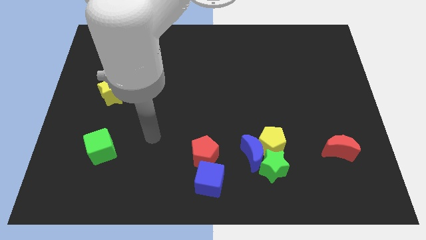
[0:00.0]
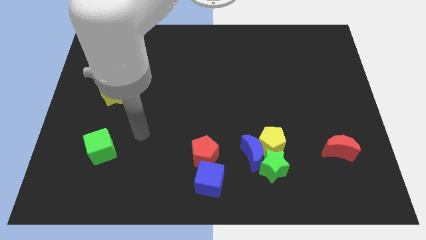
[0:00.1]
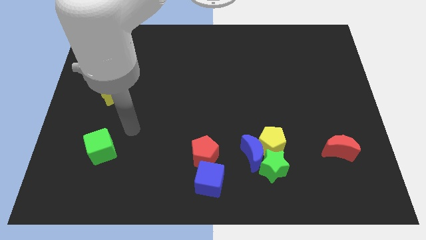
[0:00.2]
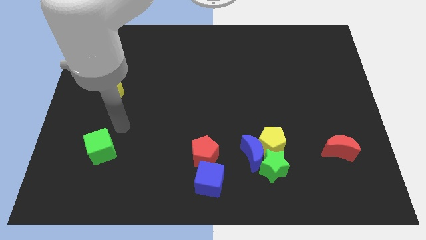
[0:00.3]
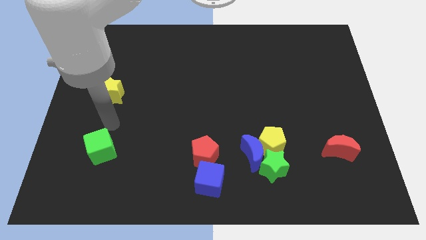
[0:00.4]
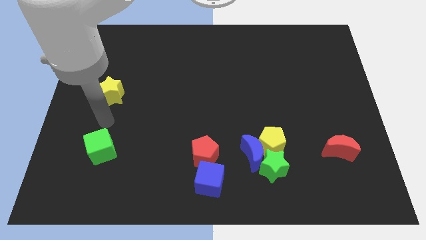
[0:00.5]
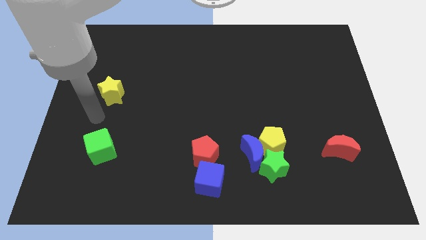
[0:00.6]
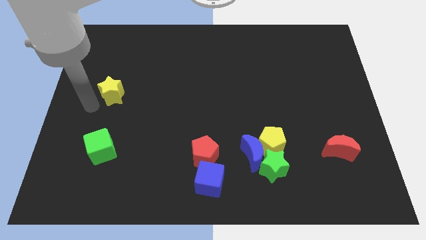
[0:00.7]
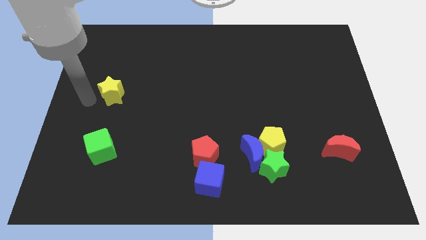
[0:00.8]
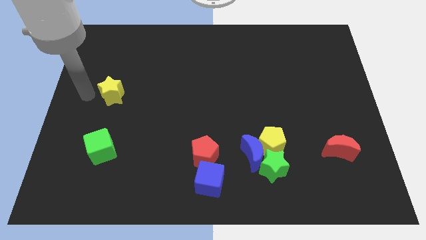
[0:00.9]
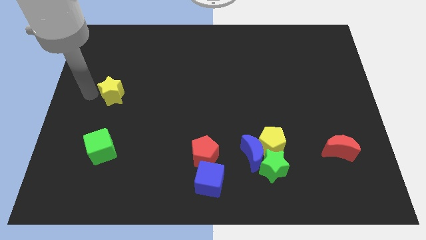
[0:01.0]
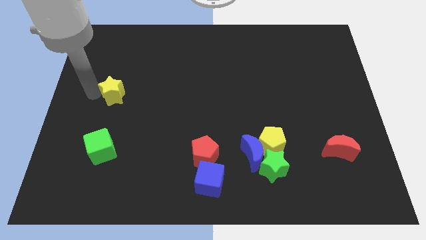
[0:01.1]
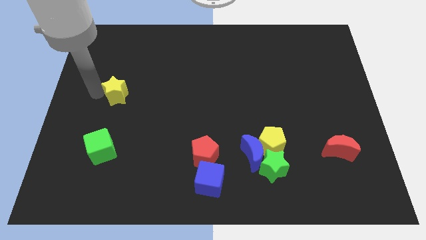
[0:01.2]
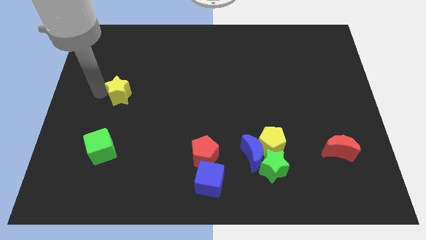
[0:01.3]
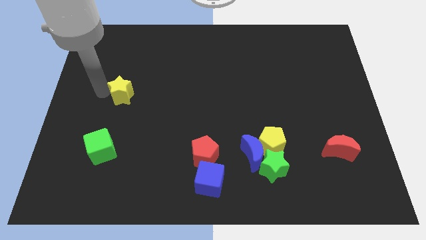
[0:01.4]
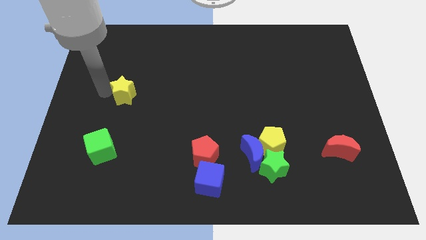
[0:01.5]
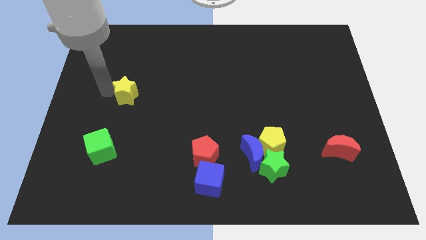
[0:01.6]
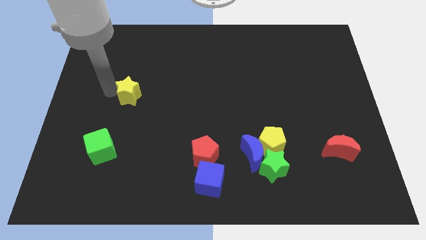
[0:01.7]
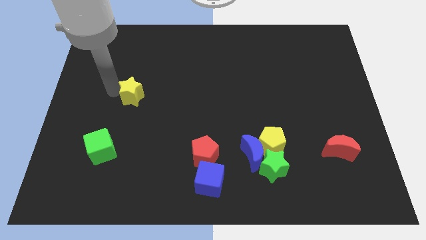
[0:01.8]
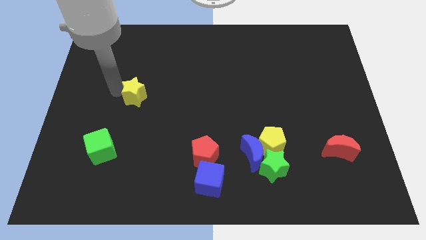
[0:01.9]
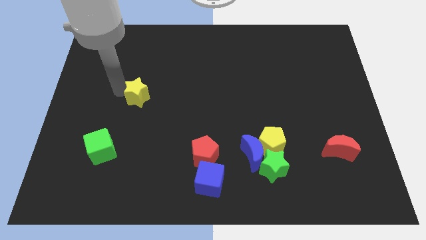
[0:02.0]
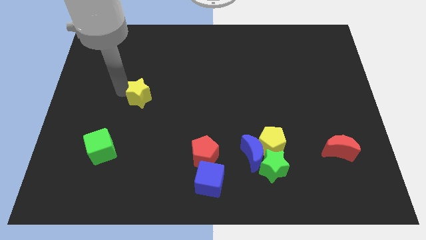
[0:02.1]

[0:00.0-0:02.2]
slide the yellow star a bit to the right

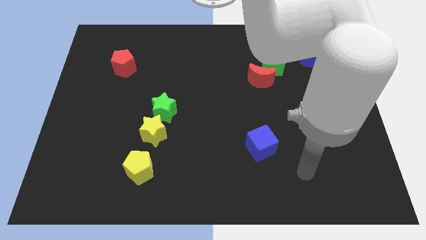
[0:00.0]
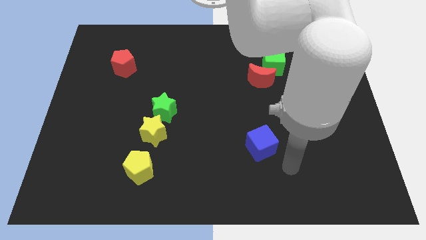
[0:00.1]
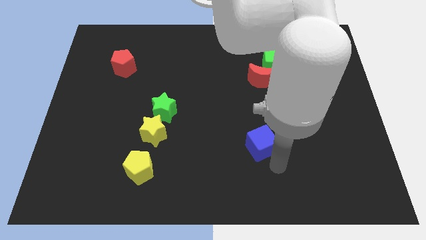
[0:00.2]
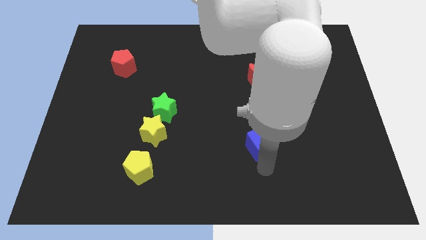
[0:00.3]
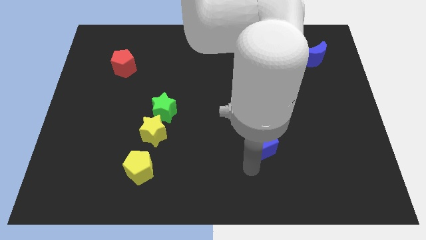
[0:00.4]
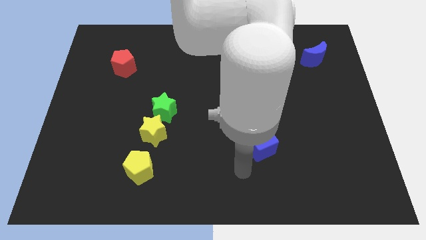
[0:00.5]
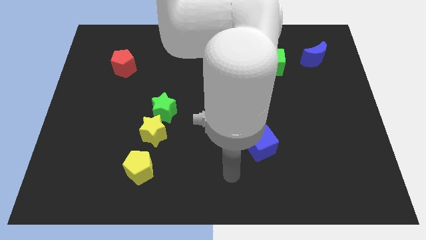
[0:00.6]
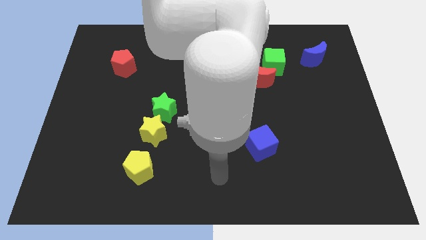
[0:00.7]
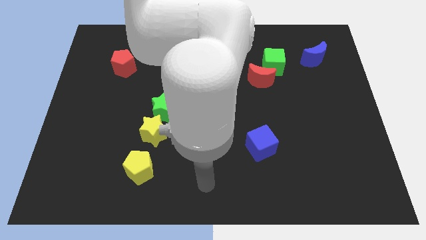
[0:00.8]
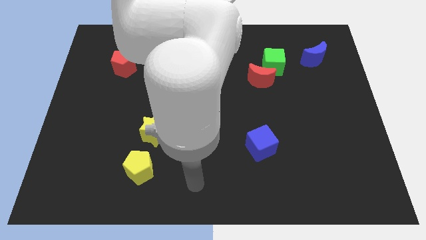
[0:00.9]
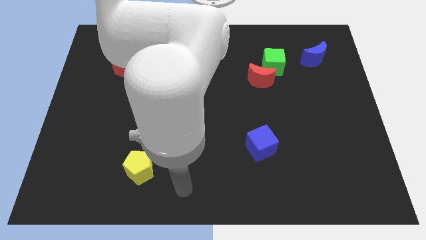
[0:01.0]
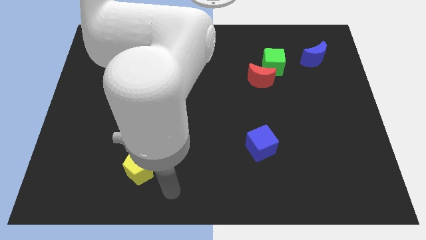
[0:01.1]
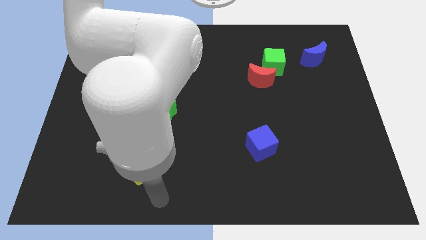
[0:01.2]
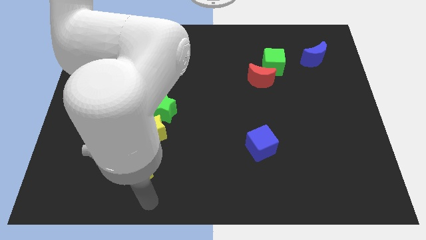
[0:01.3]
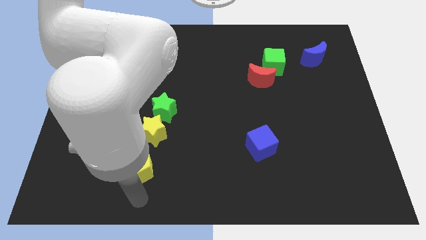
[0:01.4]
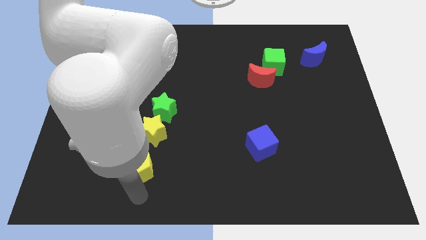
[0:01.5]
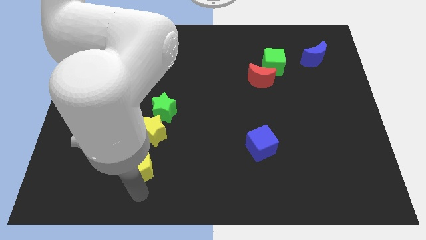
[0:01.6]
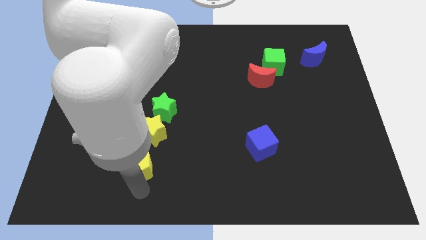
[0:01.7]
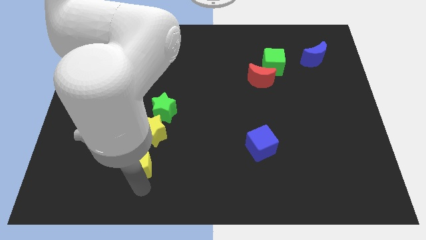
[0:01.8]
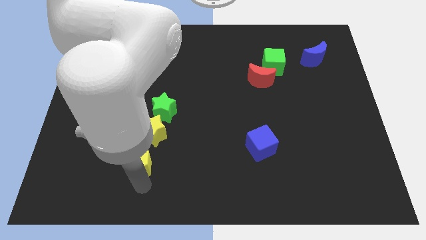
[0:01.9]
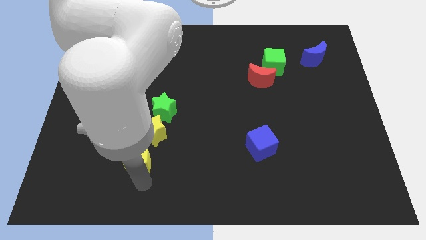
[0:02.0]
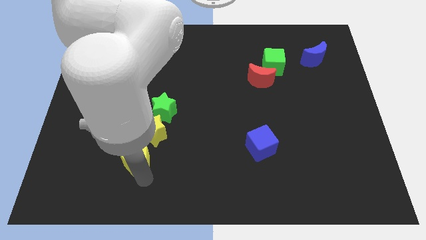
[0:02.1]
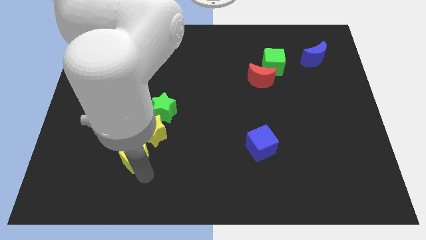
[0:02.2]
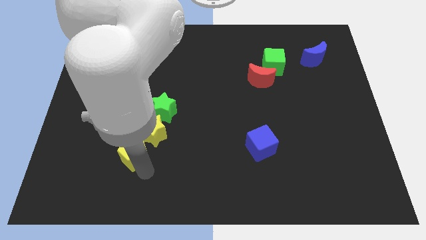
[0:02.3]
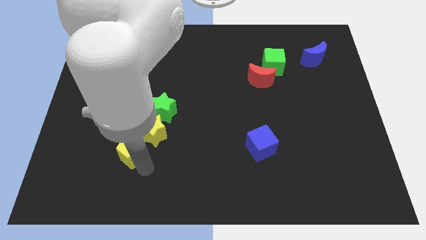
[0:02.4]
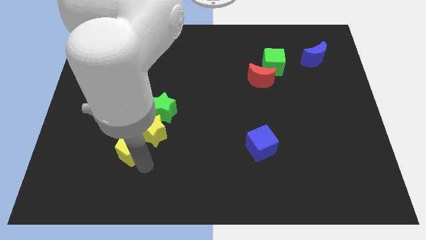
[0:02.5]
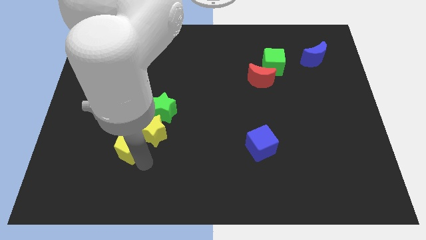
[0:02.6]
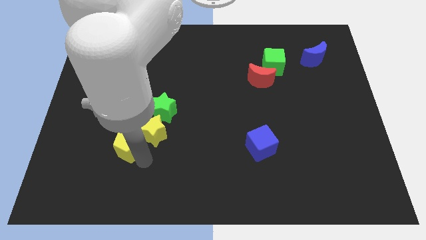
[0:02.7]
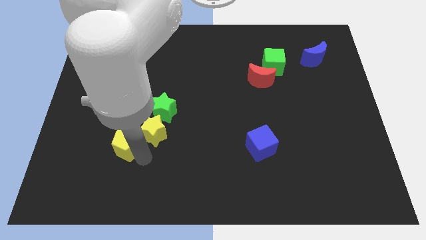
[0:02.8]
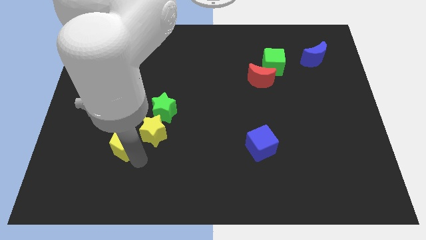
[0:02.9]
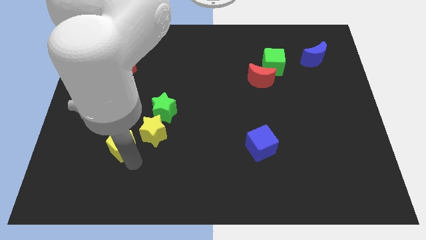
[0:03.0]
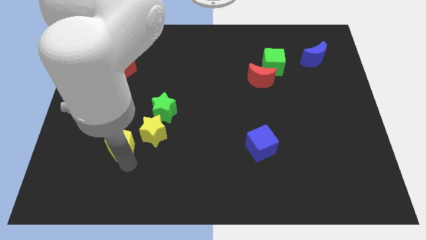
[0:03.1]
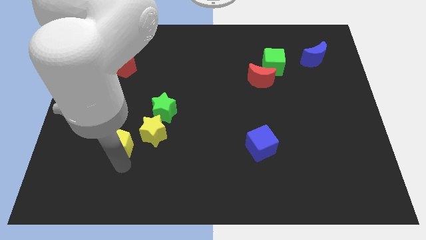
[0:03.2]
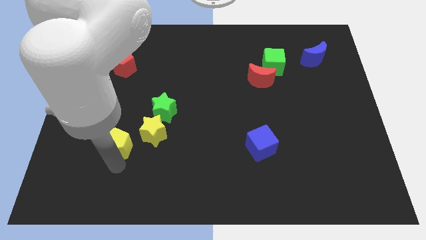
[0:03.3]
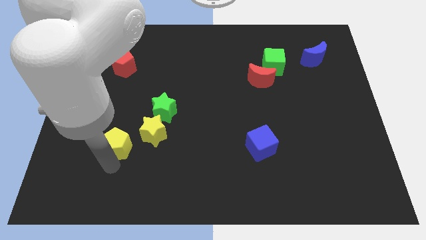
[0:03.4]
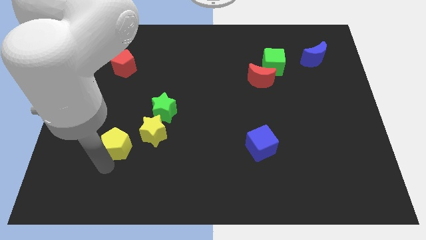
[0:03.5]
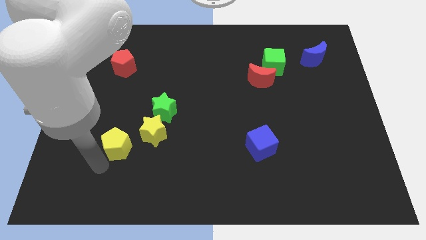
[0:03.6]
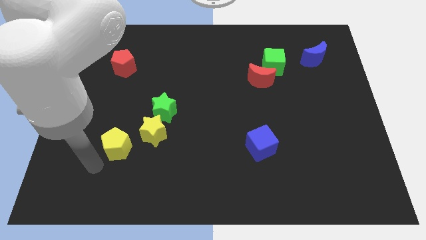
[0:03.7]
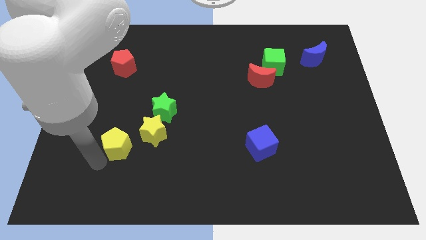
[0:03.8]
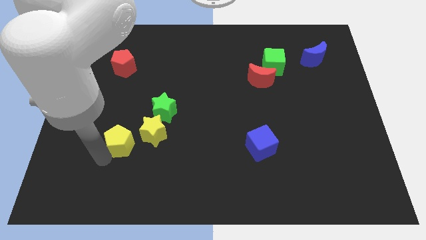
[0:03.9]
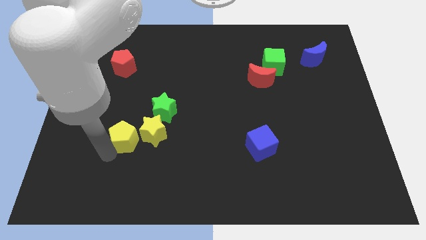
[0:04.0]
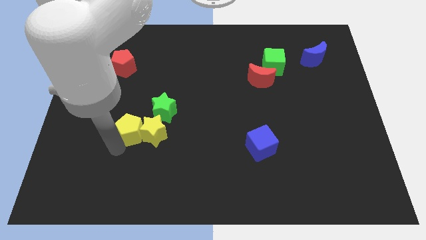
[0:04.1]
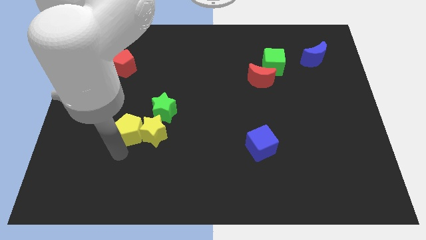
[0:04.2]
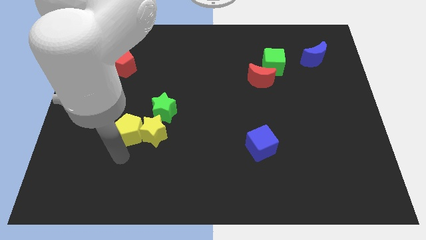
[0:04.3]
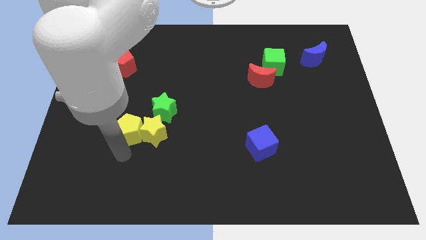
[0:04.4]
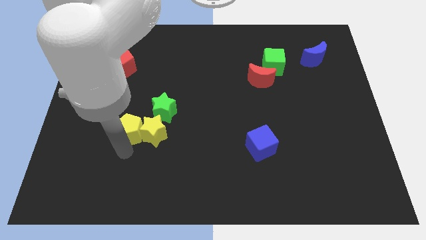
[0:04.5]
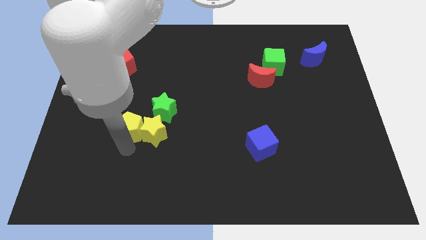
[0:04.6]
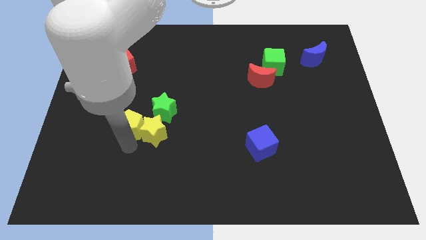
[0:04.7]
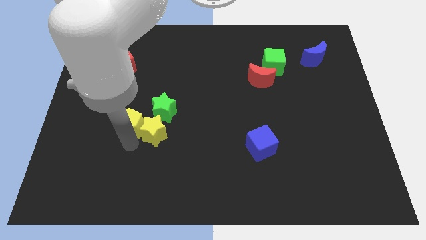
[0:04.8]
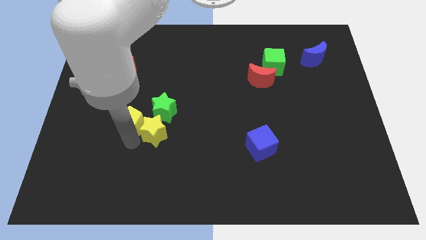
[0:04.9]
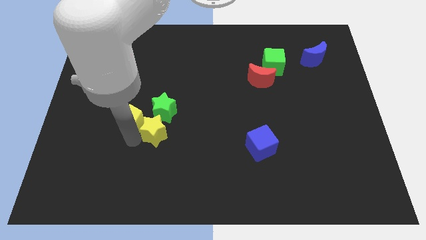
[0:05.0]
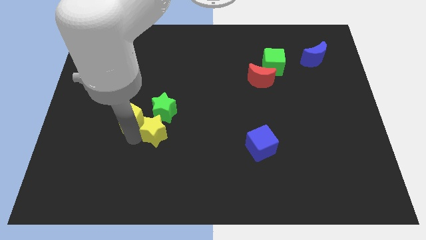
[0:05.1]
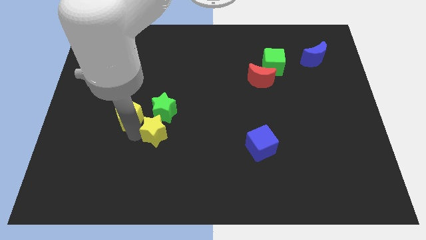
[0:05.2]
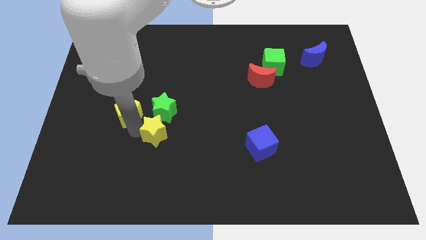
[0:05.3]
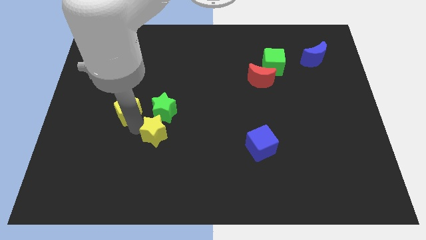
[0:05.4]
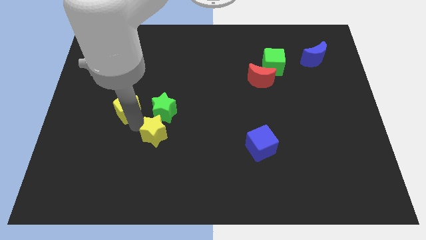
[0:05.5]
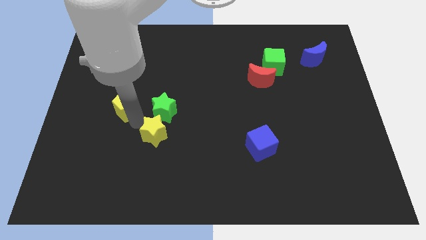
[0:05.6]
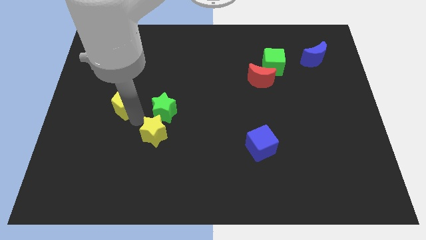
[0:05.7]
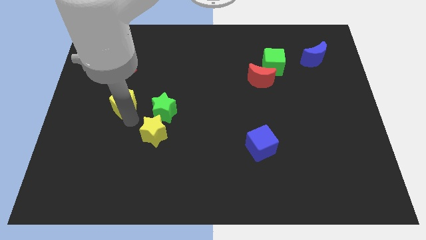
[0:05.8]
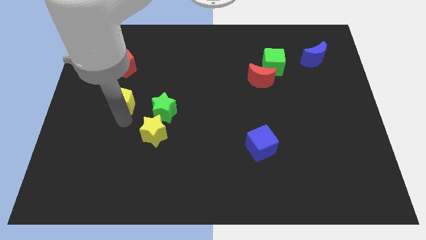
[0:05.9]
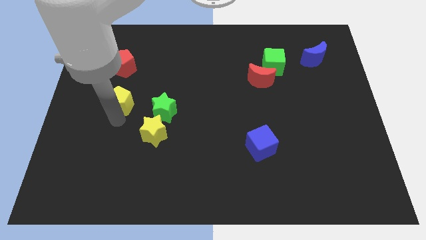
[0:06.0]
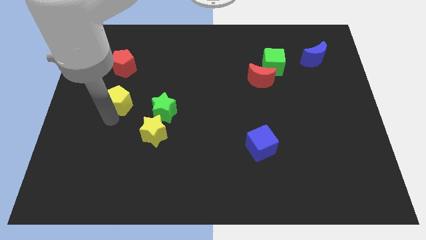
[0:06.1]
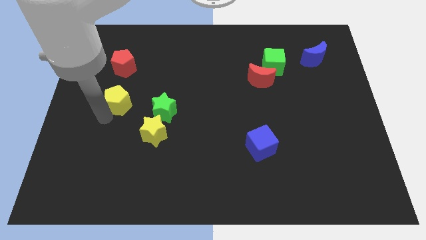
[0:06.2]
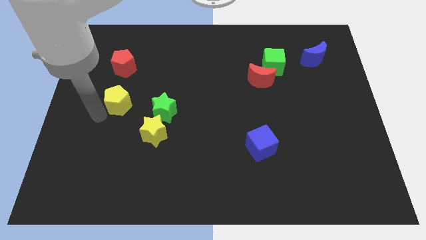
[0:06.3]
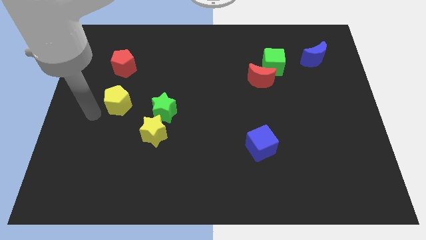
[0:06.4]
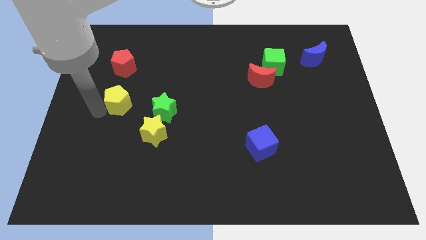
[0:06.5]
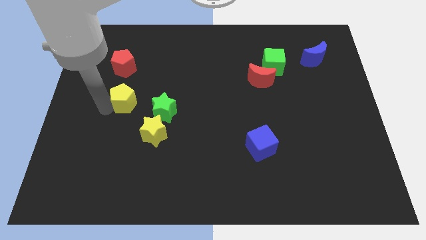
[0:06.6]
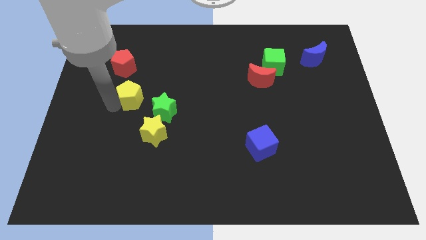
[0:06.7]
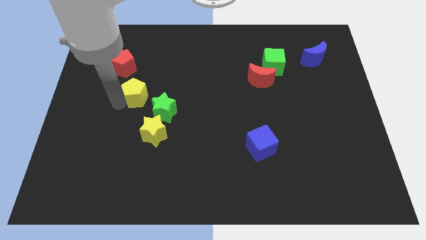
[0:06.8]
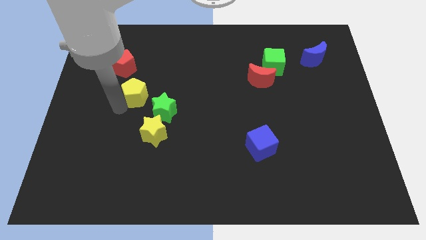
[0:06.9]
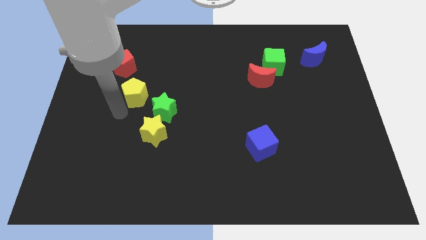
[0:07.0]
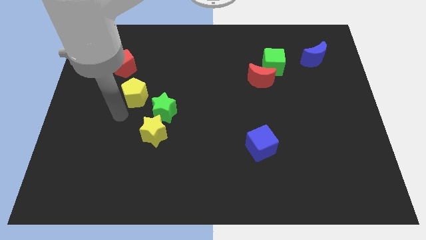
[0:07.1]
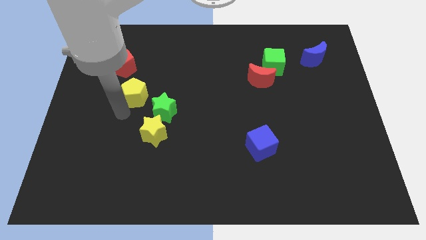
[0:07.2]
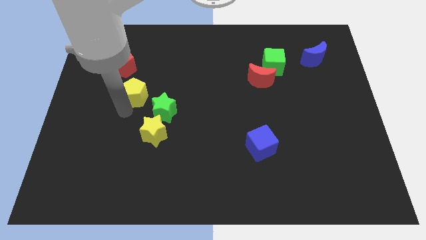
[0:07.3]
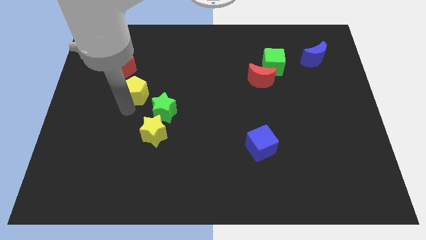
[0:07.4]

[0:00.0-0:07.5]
push the yellow pentagon up
